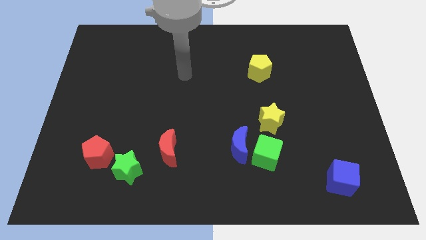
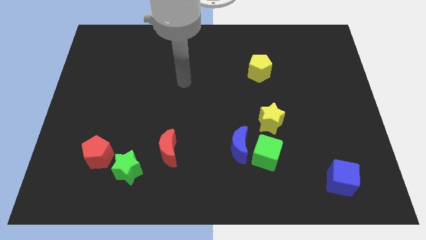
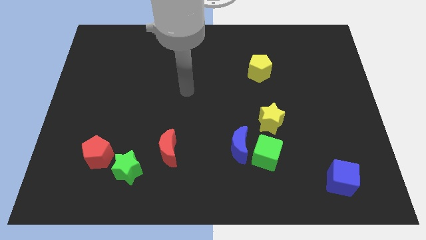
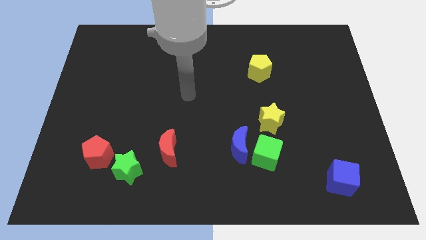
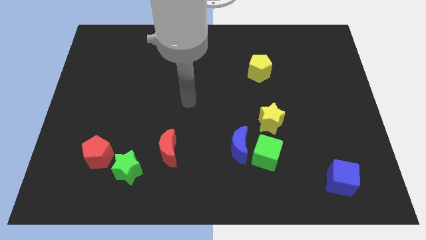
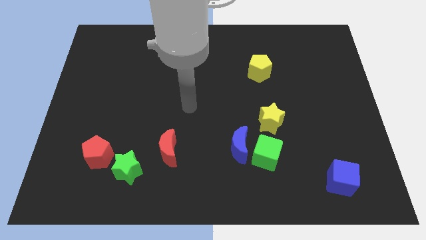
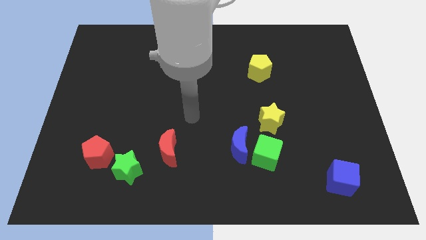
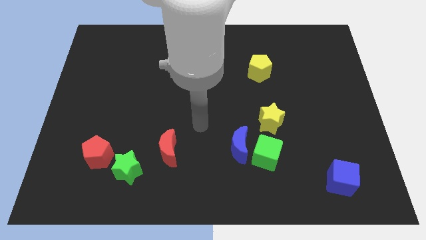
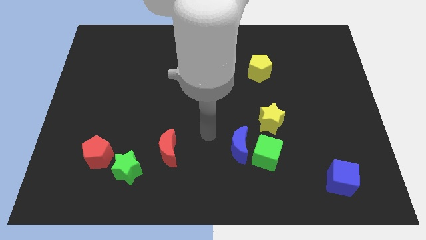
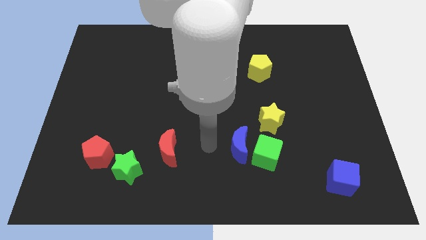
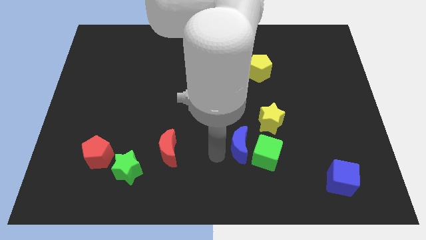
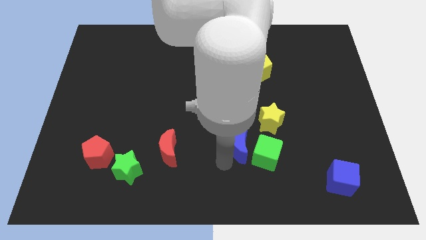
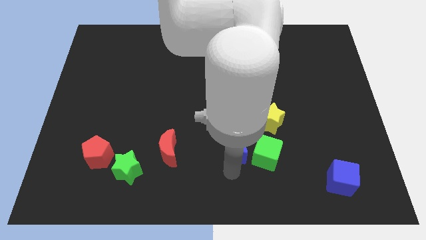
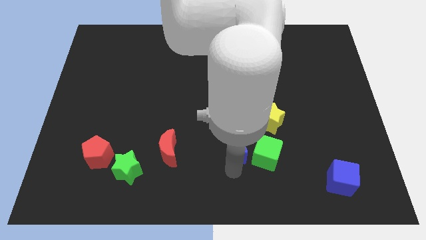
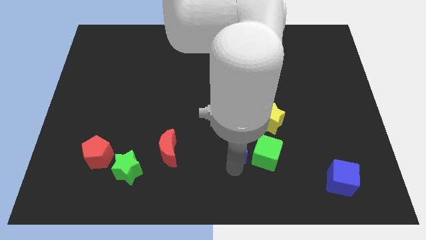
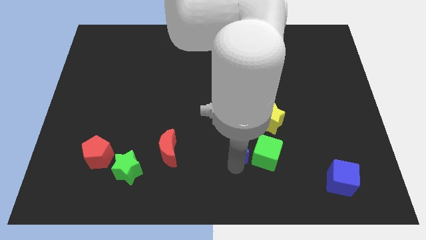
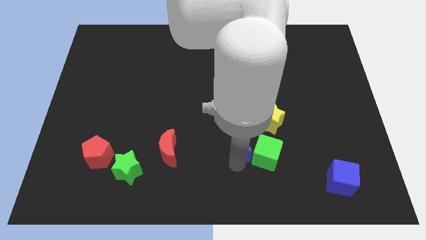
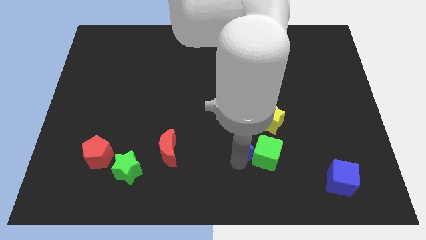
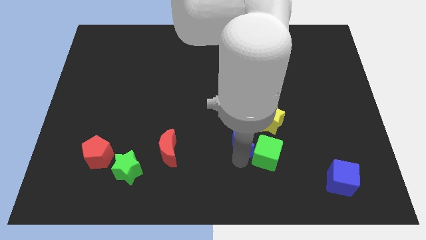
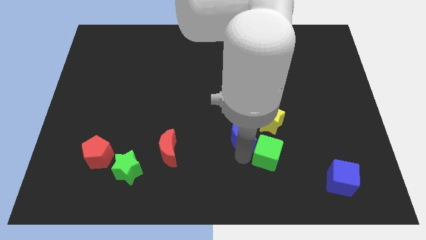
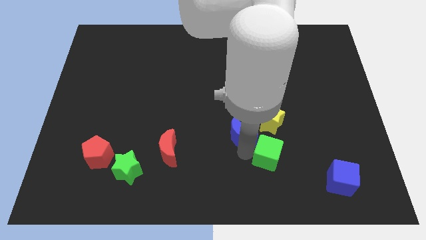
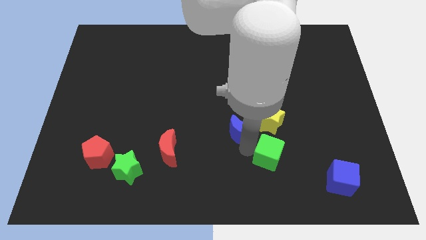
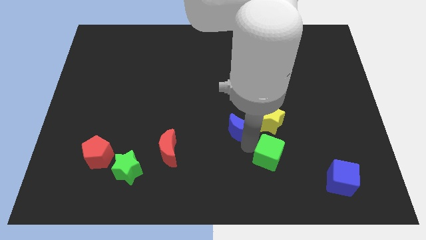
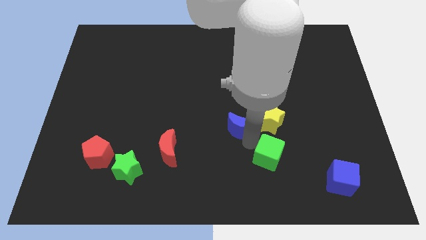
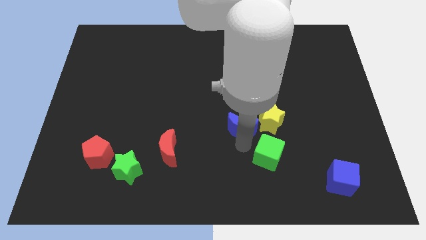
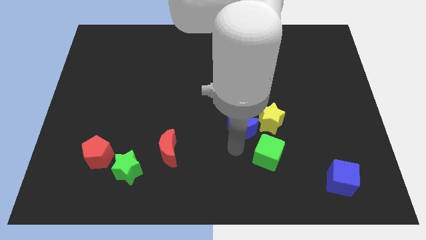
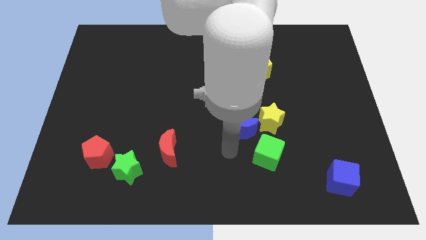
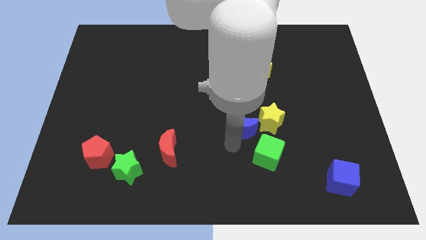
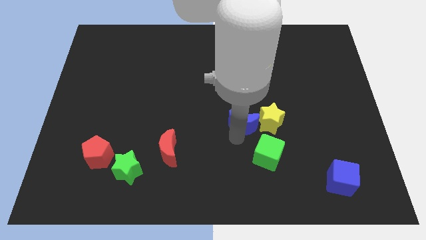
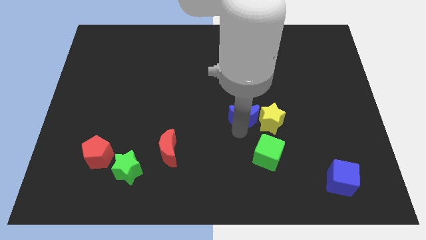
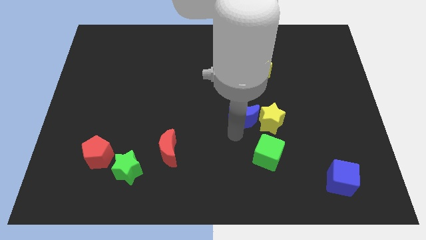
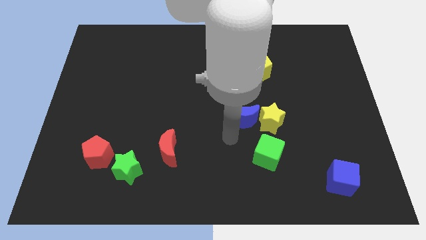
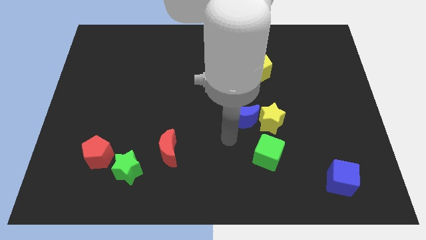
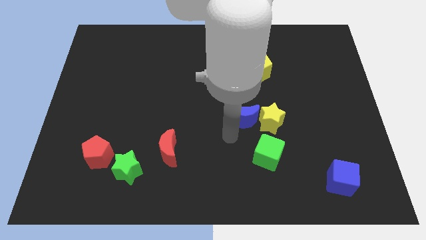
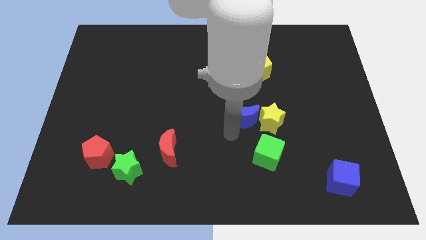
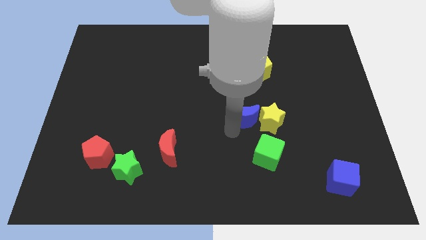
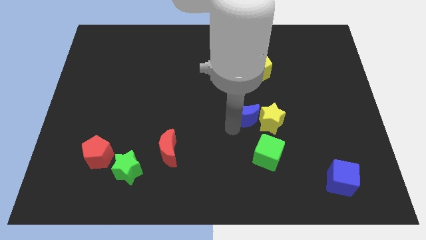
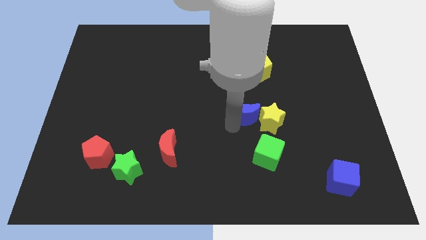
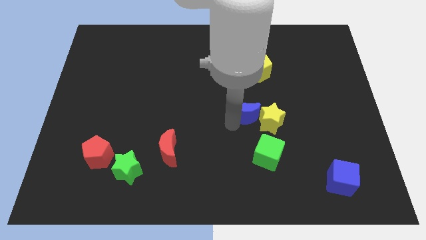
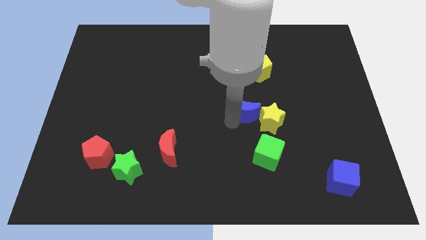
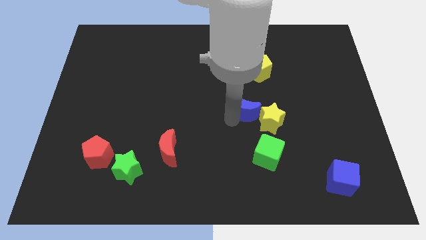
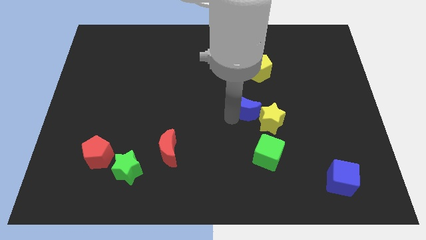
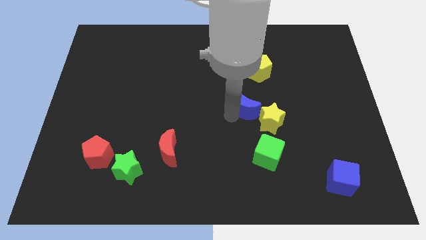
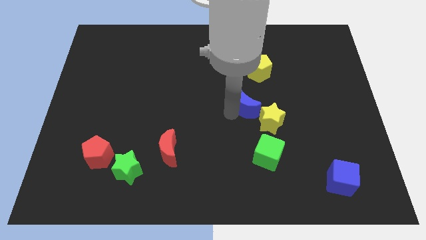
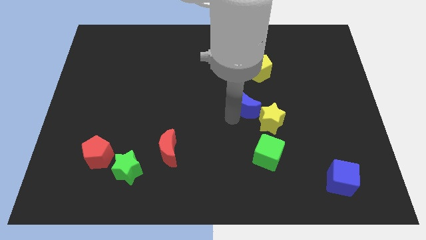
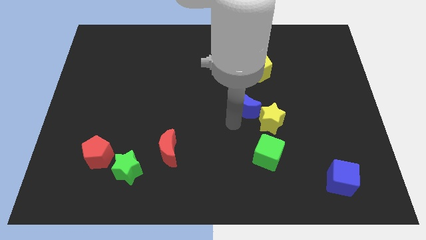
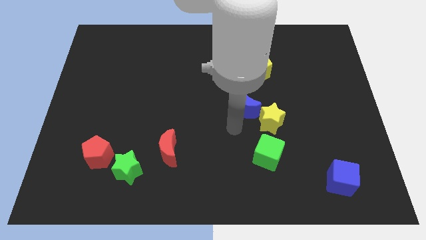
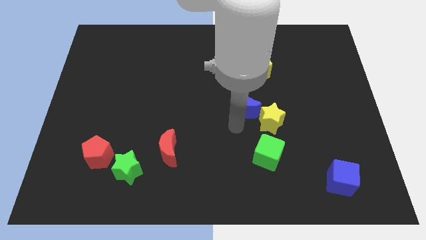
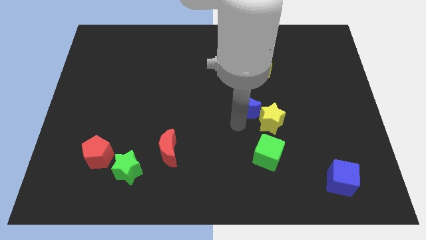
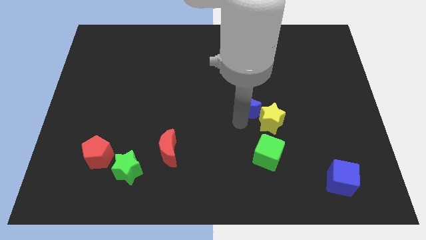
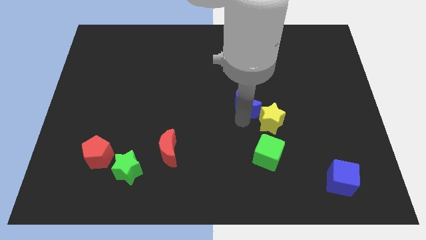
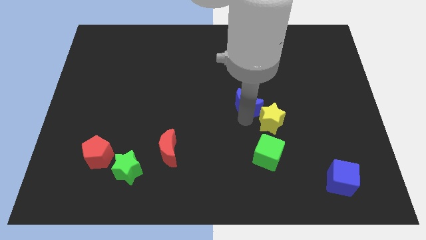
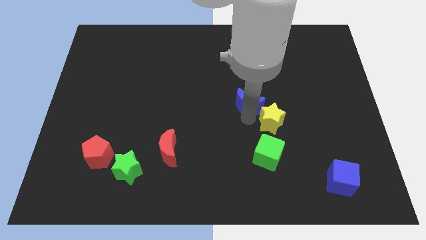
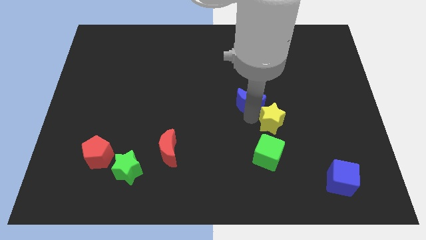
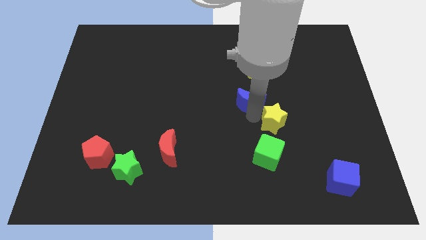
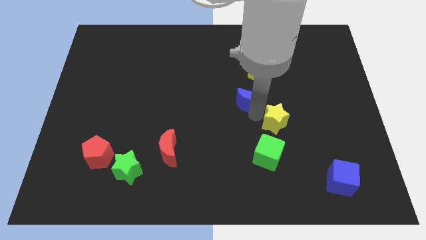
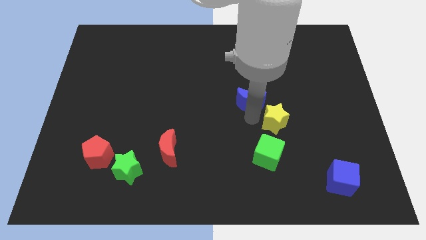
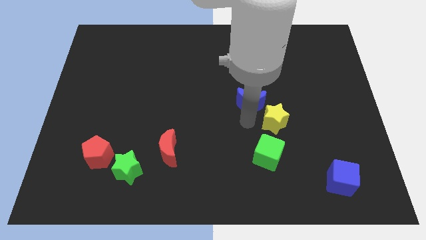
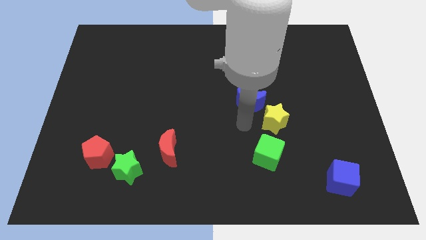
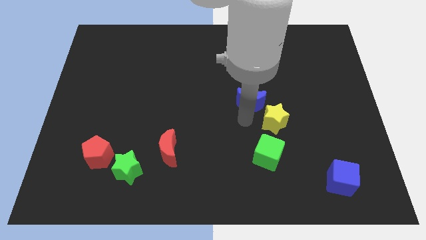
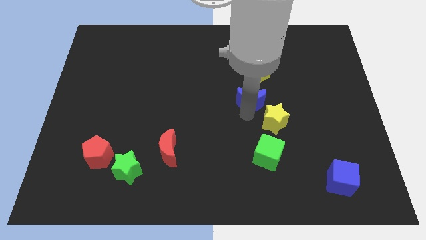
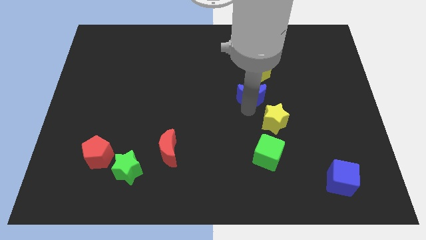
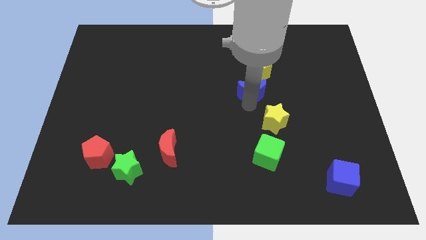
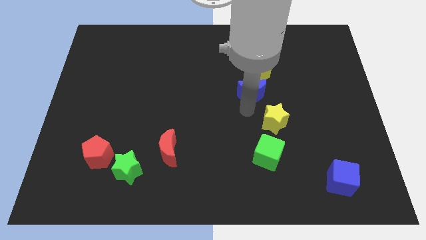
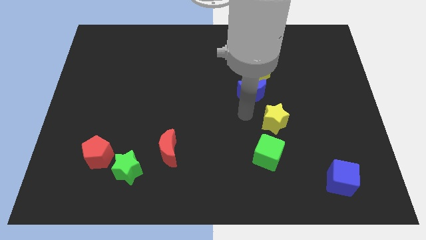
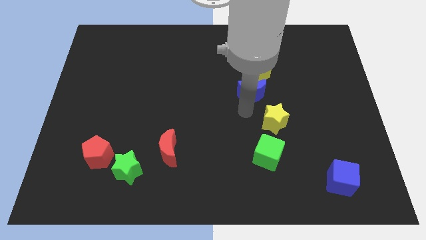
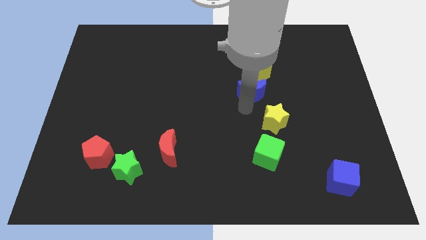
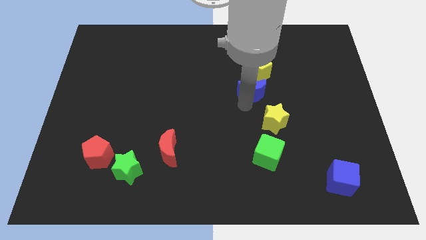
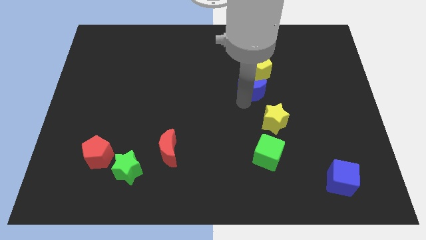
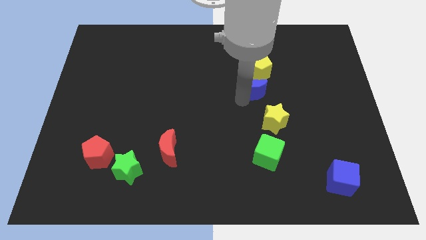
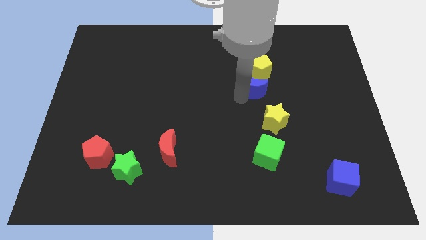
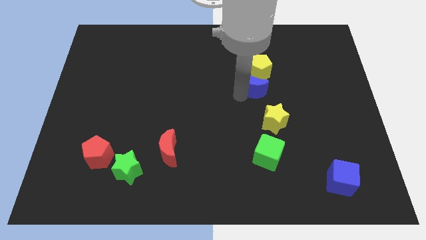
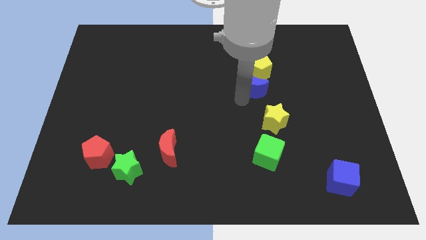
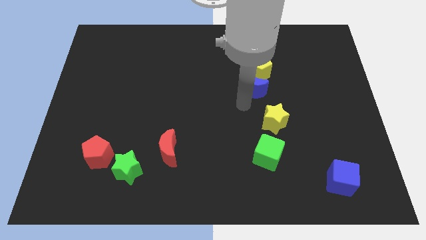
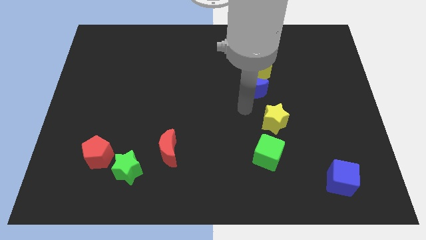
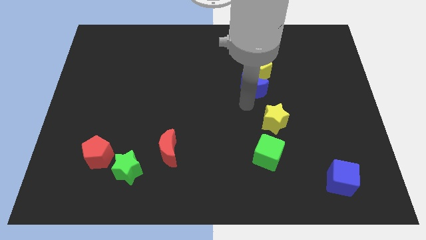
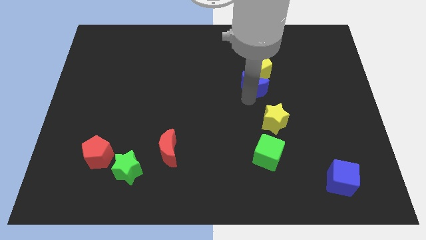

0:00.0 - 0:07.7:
put the blue moon close to the yellow pentagon
